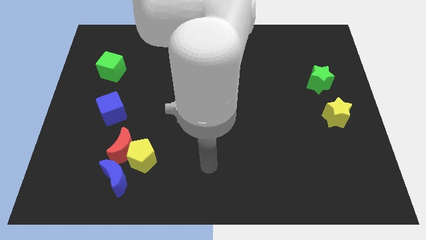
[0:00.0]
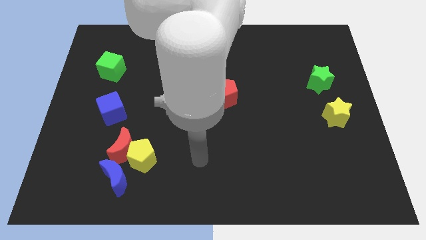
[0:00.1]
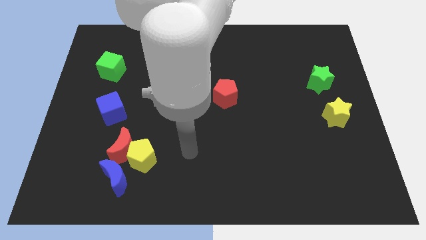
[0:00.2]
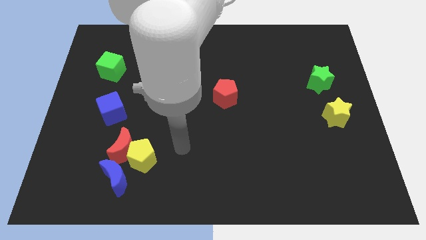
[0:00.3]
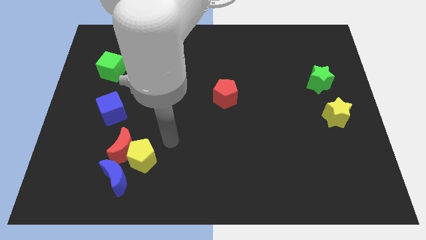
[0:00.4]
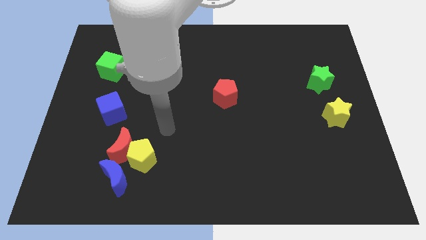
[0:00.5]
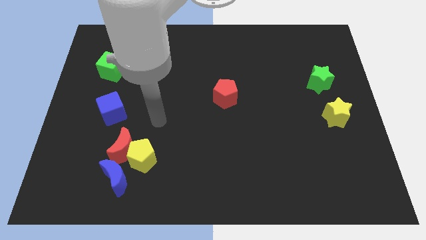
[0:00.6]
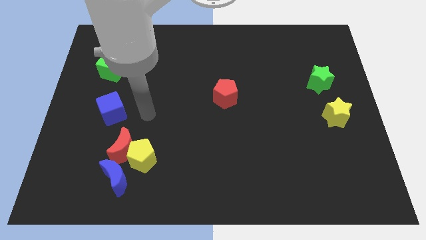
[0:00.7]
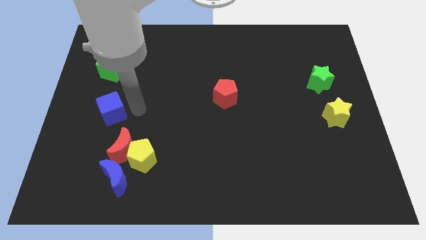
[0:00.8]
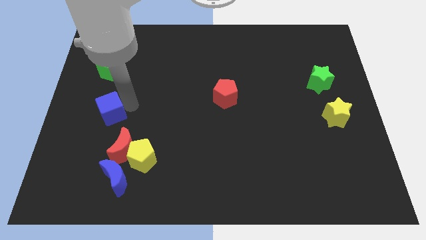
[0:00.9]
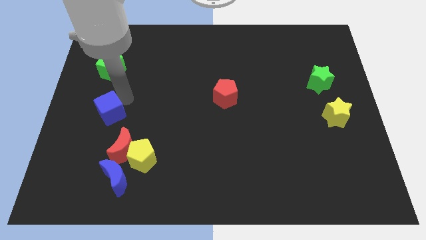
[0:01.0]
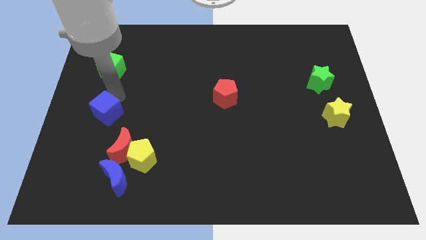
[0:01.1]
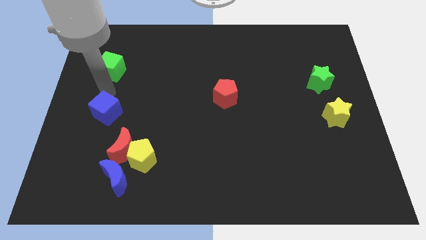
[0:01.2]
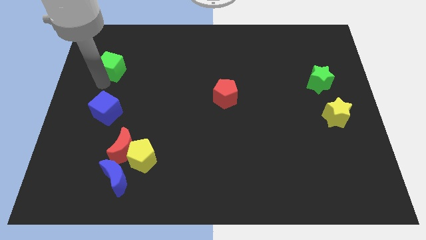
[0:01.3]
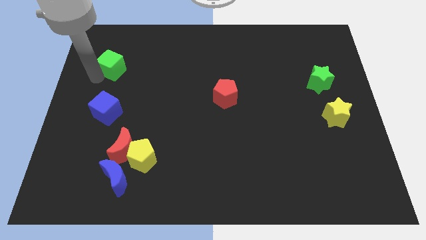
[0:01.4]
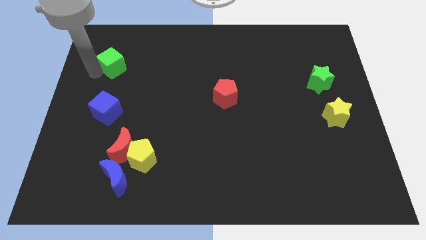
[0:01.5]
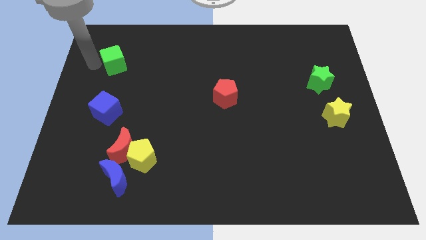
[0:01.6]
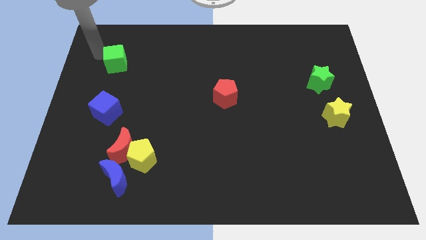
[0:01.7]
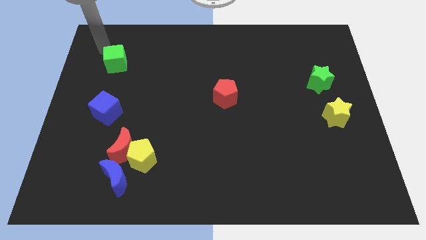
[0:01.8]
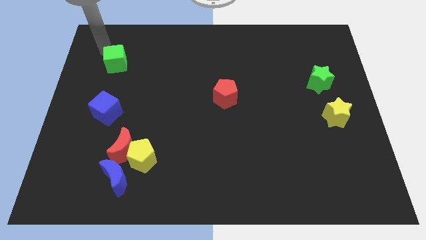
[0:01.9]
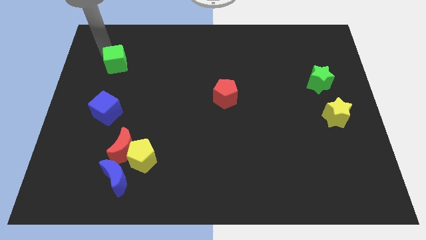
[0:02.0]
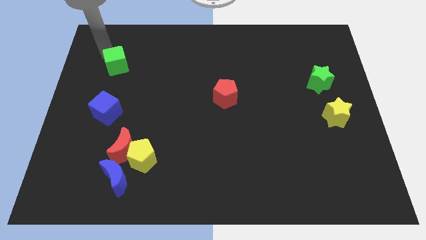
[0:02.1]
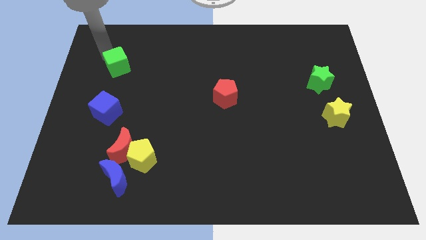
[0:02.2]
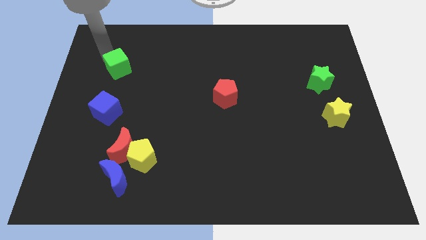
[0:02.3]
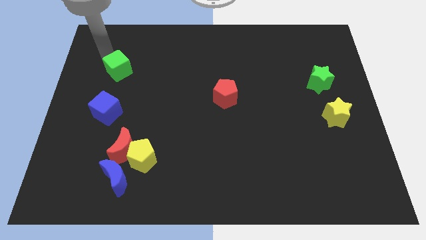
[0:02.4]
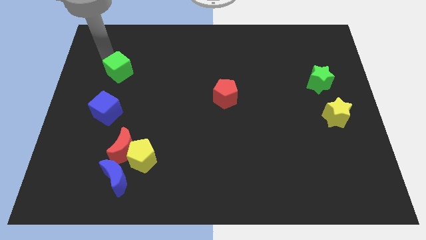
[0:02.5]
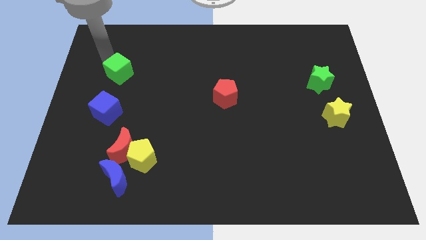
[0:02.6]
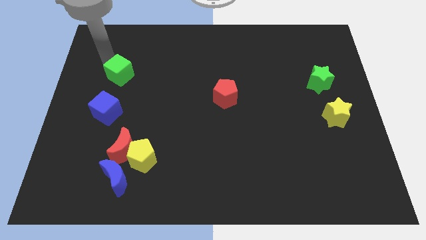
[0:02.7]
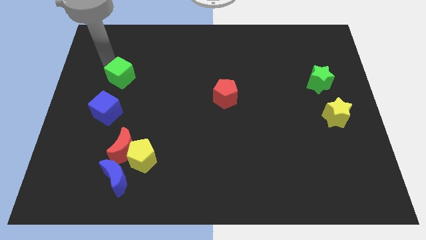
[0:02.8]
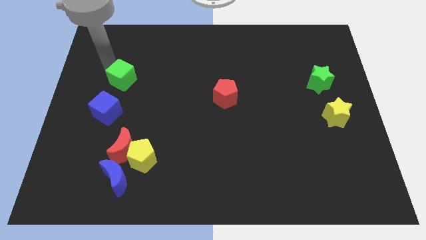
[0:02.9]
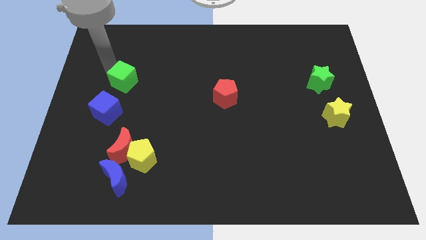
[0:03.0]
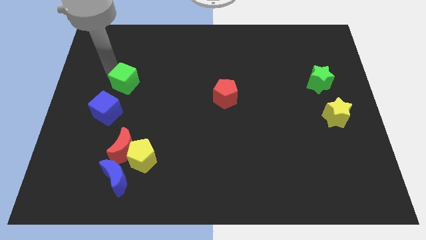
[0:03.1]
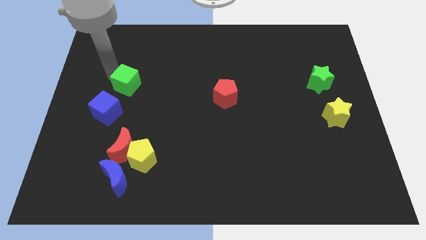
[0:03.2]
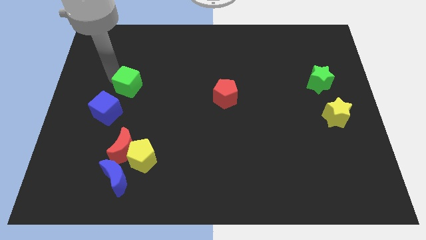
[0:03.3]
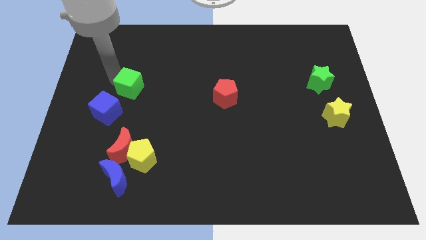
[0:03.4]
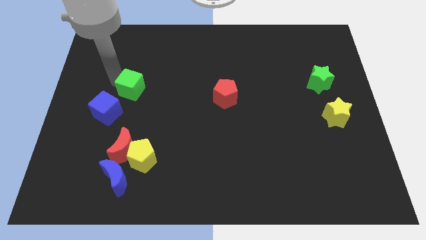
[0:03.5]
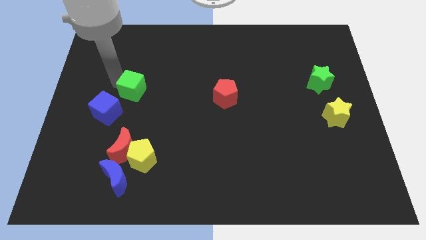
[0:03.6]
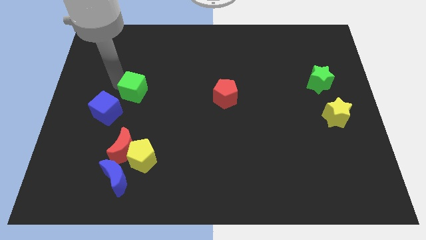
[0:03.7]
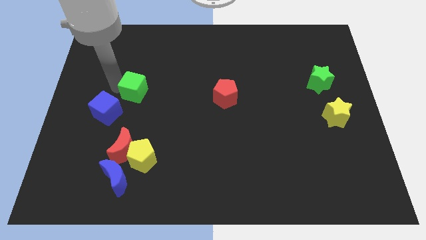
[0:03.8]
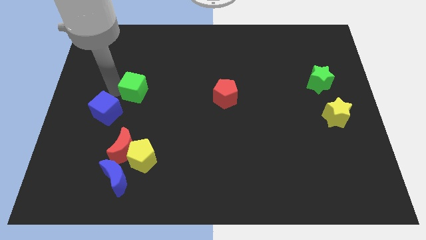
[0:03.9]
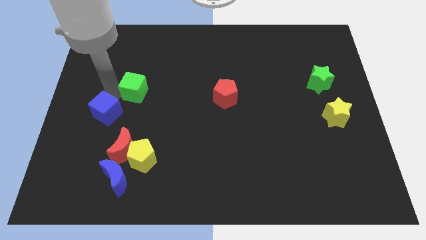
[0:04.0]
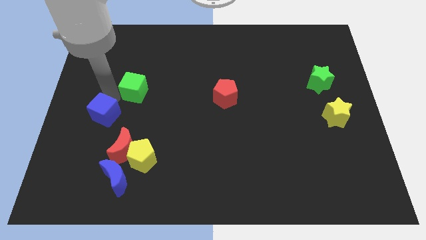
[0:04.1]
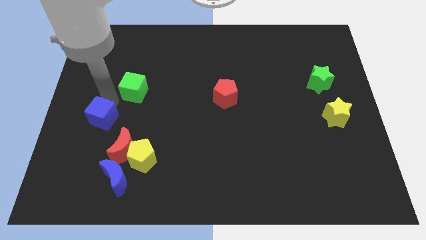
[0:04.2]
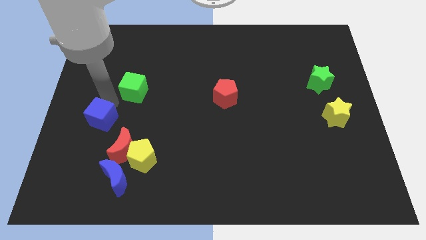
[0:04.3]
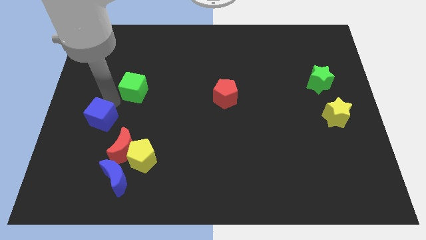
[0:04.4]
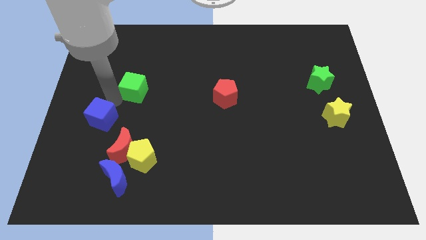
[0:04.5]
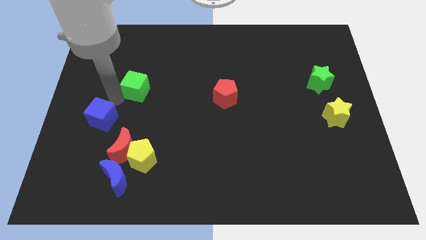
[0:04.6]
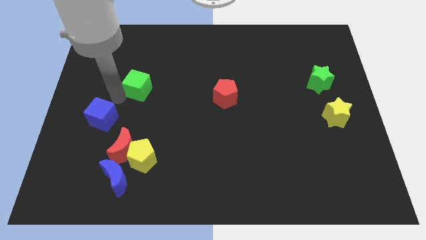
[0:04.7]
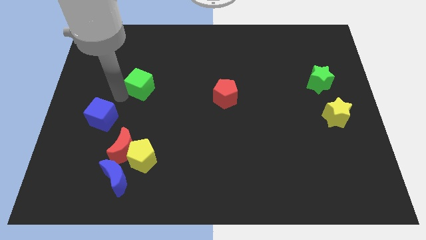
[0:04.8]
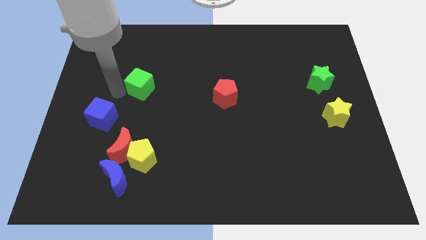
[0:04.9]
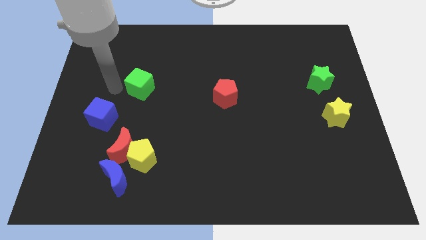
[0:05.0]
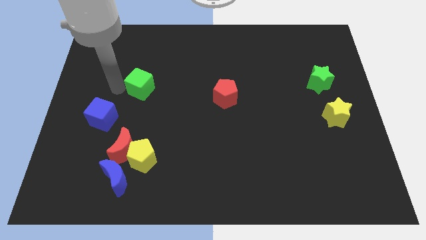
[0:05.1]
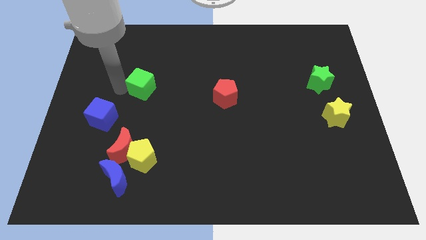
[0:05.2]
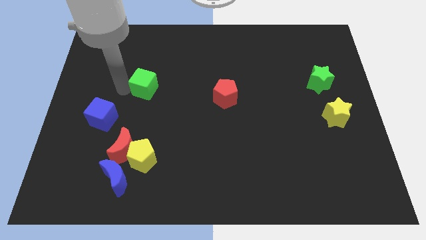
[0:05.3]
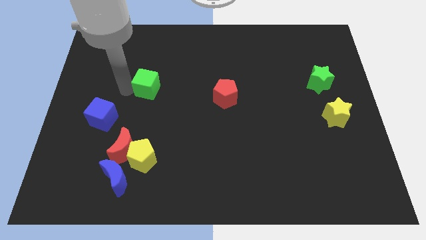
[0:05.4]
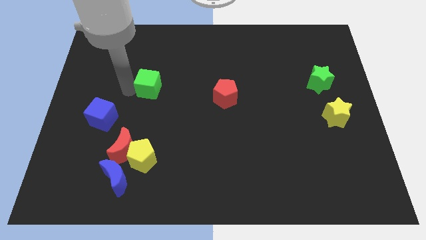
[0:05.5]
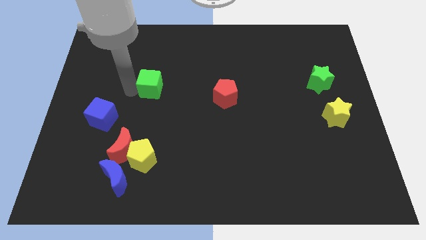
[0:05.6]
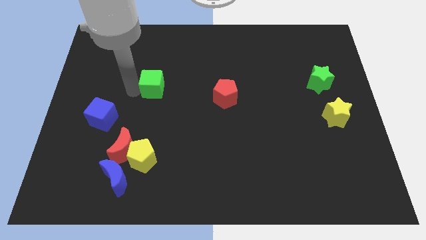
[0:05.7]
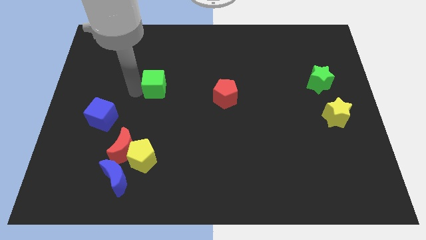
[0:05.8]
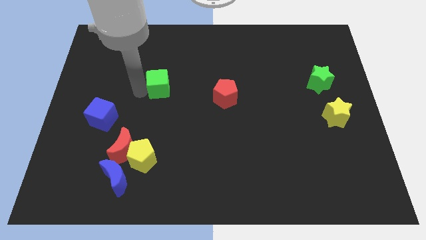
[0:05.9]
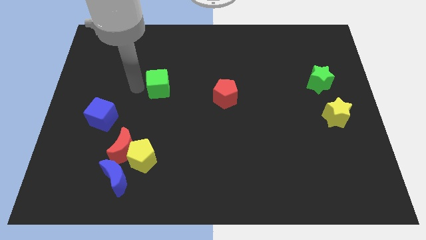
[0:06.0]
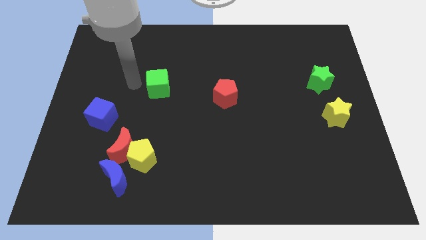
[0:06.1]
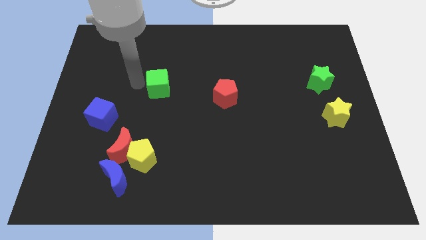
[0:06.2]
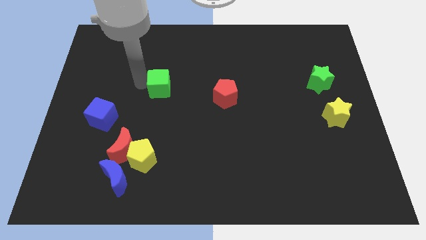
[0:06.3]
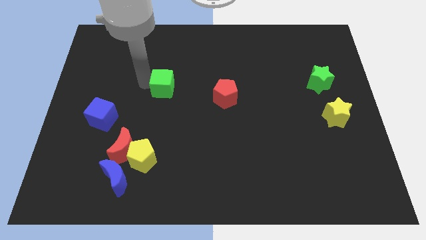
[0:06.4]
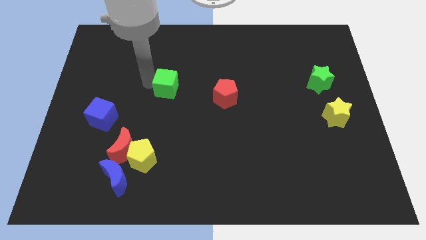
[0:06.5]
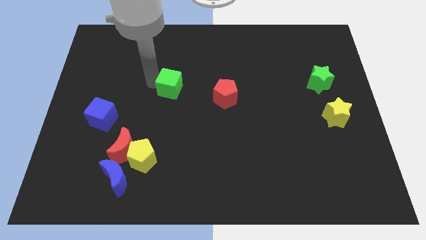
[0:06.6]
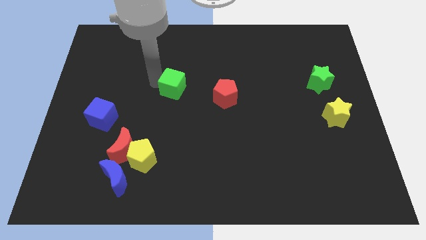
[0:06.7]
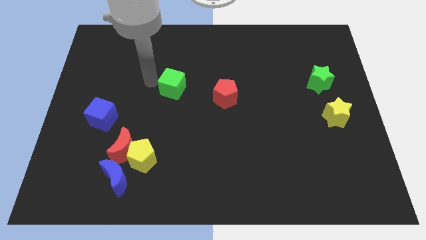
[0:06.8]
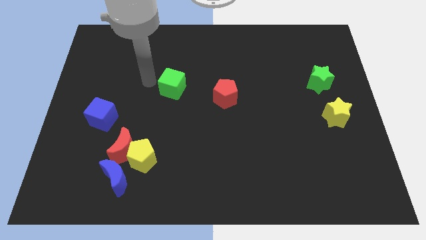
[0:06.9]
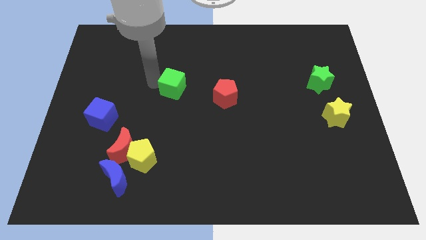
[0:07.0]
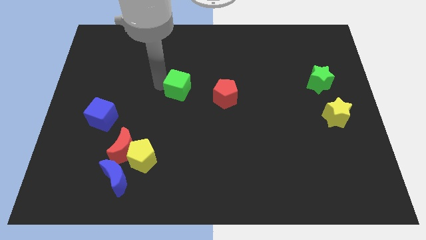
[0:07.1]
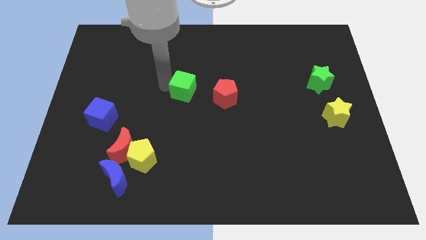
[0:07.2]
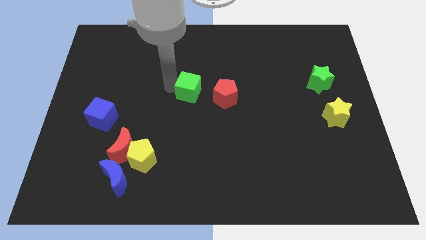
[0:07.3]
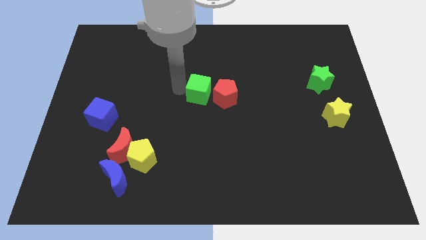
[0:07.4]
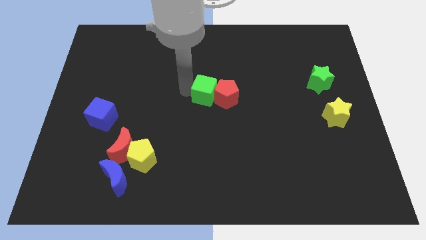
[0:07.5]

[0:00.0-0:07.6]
push the green cube towards the red pentagon

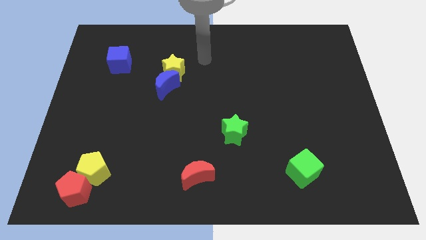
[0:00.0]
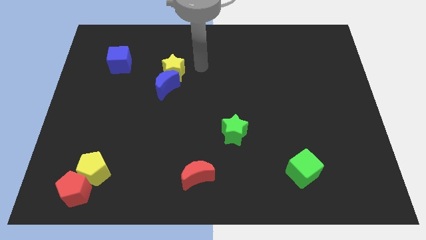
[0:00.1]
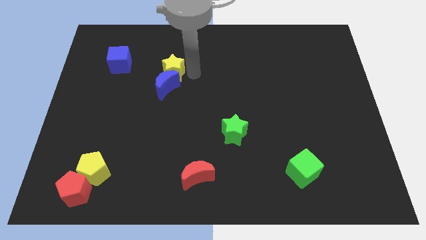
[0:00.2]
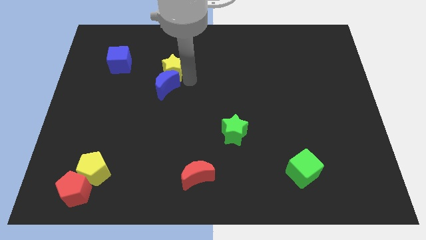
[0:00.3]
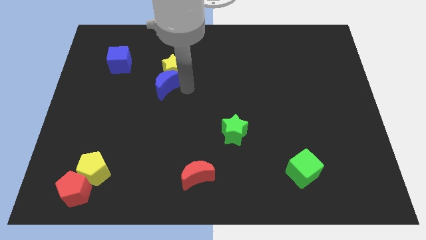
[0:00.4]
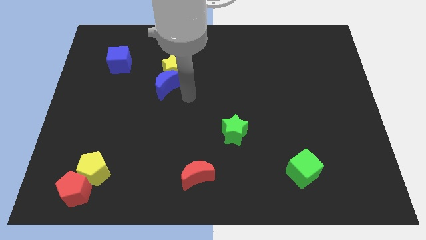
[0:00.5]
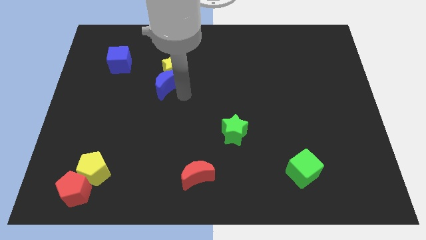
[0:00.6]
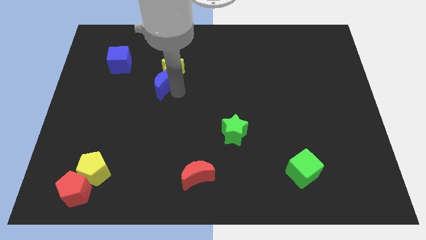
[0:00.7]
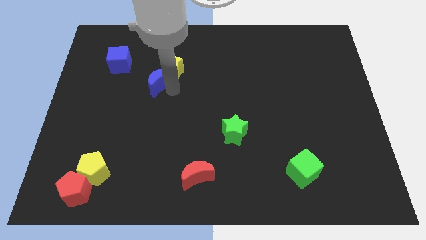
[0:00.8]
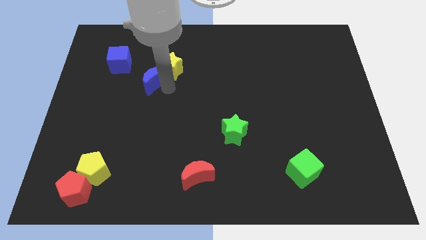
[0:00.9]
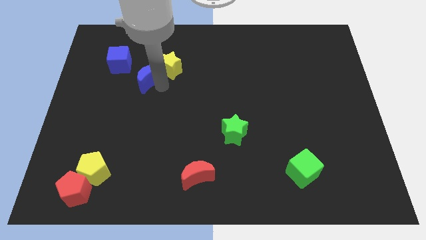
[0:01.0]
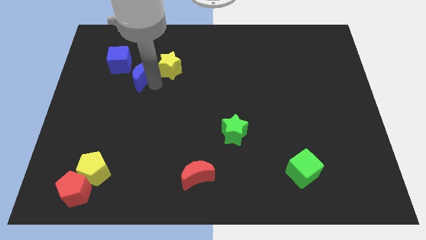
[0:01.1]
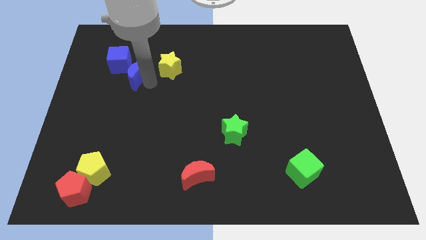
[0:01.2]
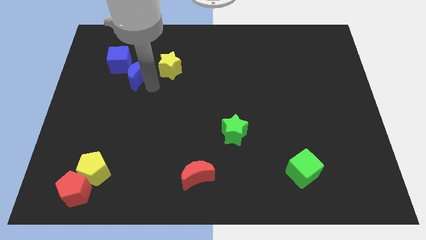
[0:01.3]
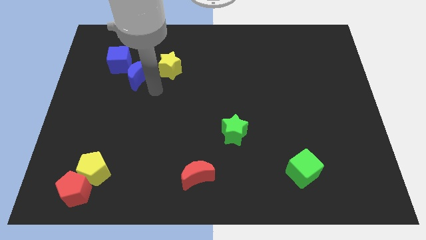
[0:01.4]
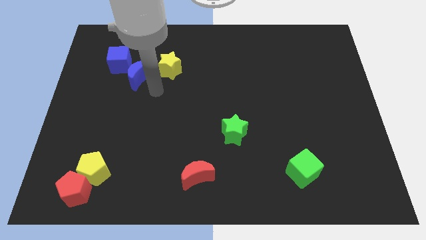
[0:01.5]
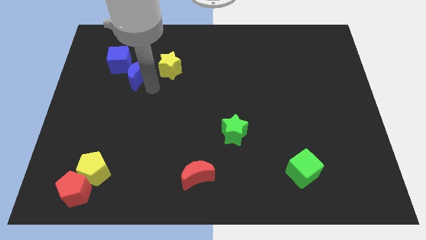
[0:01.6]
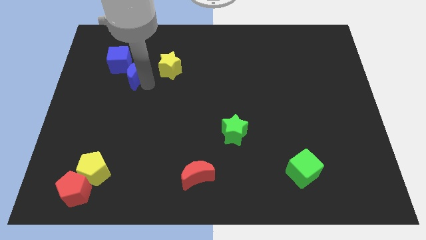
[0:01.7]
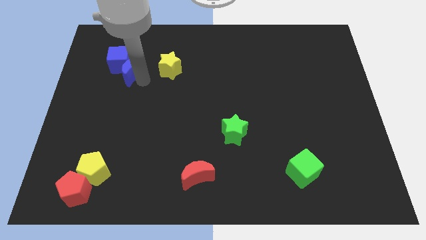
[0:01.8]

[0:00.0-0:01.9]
push the blue moon close to the blue cube
